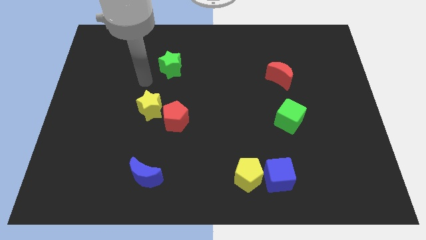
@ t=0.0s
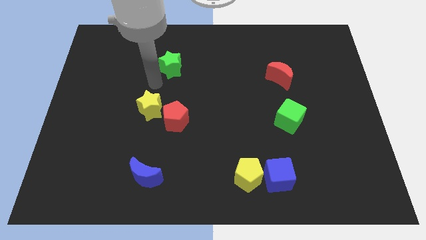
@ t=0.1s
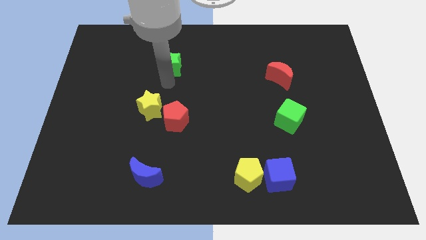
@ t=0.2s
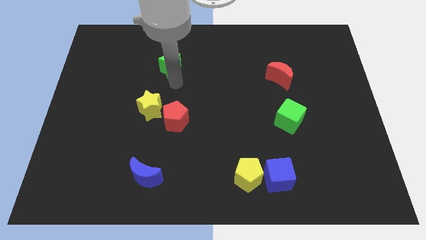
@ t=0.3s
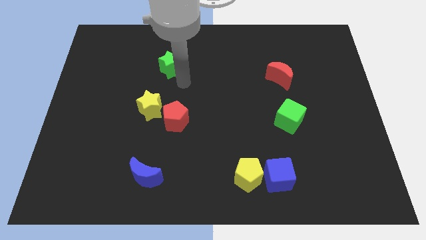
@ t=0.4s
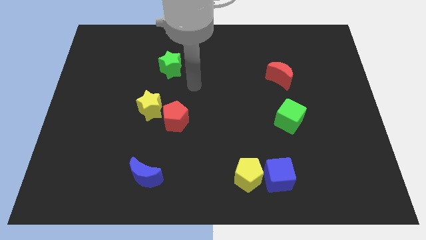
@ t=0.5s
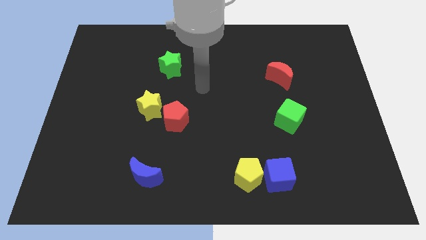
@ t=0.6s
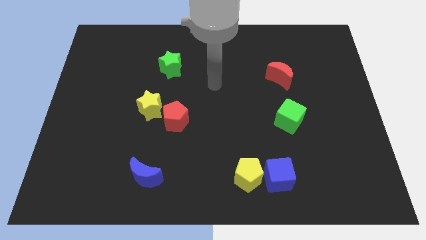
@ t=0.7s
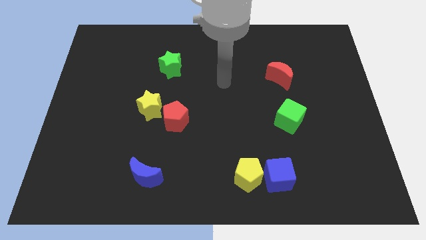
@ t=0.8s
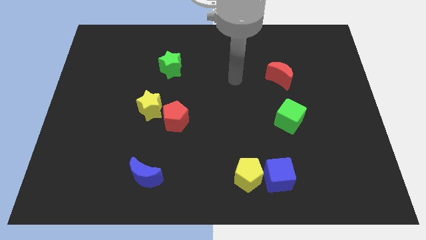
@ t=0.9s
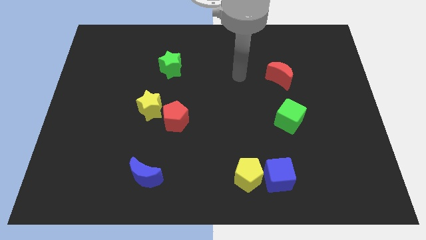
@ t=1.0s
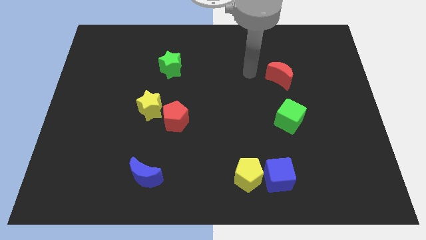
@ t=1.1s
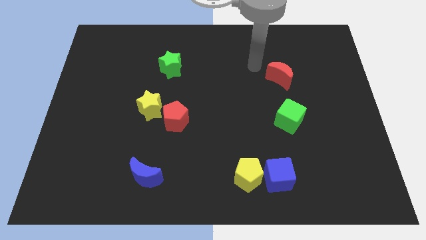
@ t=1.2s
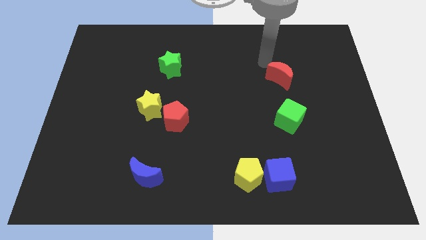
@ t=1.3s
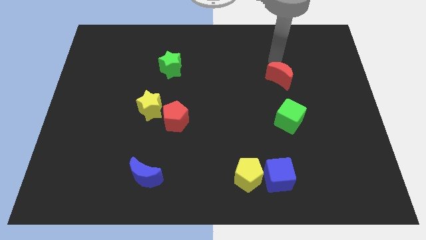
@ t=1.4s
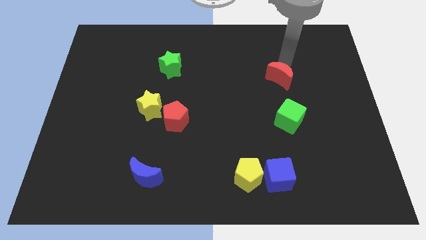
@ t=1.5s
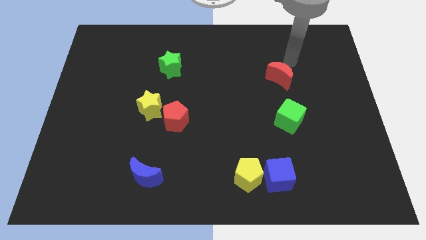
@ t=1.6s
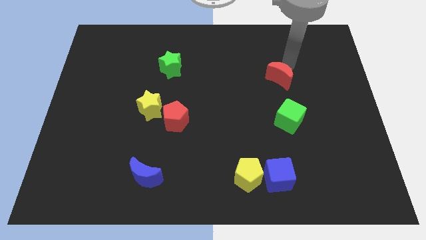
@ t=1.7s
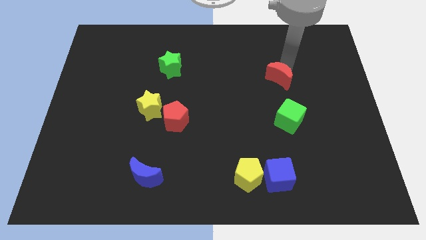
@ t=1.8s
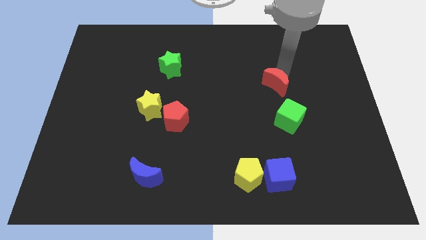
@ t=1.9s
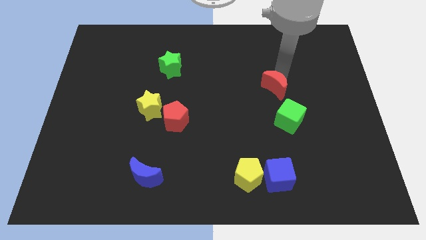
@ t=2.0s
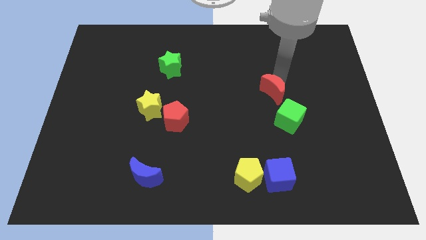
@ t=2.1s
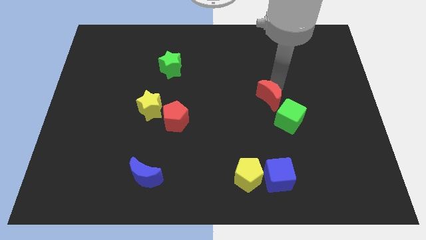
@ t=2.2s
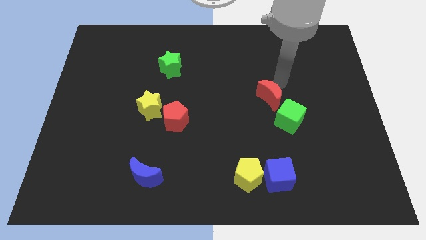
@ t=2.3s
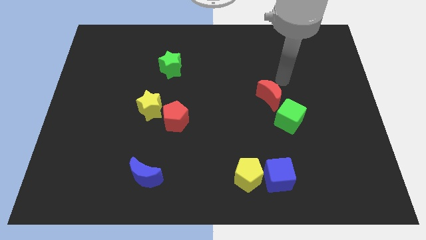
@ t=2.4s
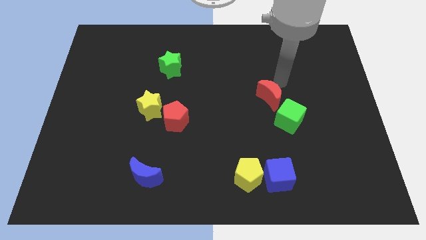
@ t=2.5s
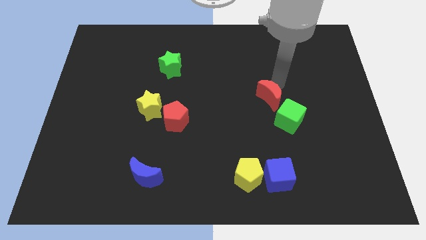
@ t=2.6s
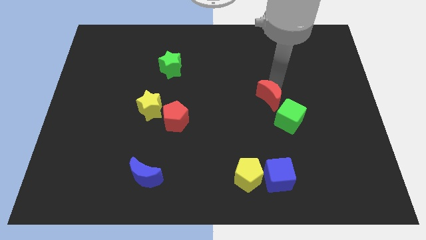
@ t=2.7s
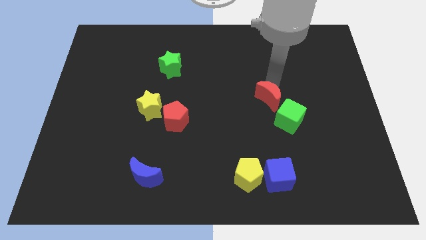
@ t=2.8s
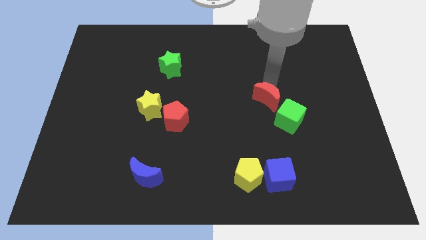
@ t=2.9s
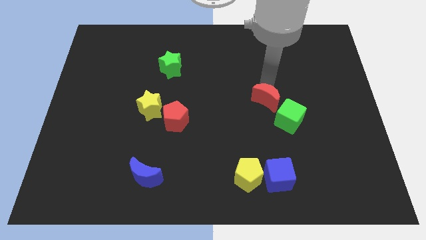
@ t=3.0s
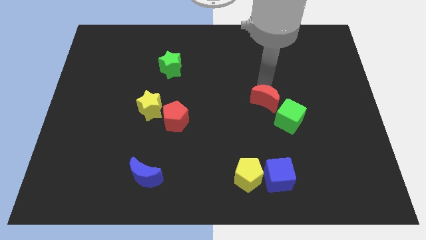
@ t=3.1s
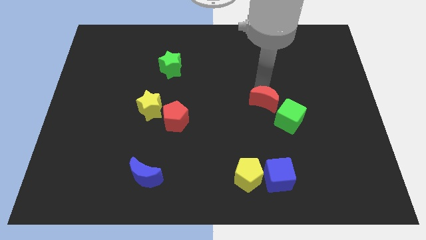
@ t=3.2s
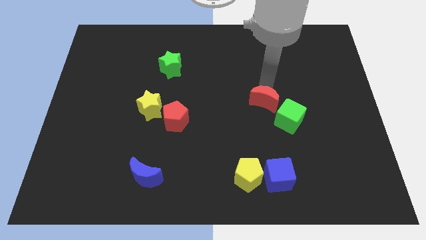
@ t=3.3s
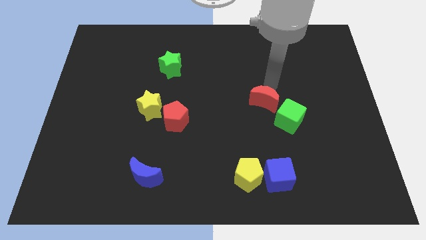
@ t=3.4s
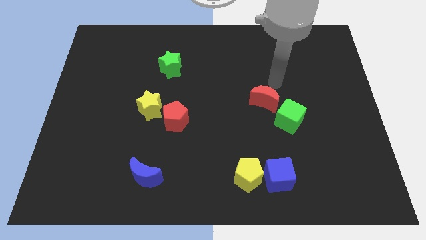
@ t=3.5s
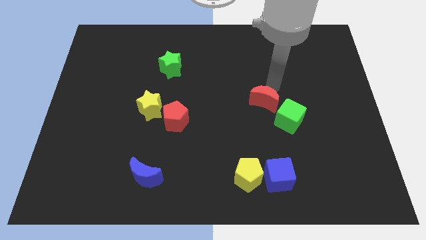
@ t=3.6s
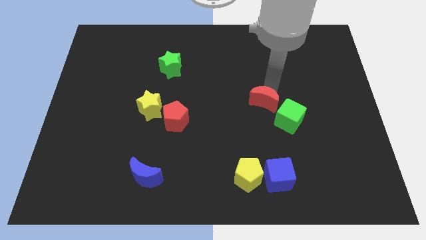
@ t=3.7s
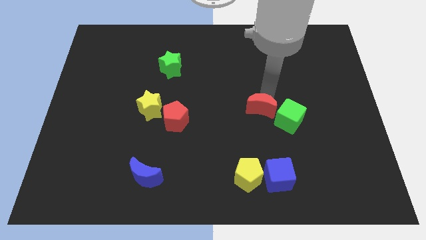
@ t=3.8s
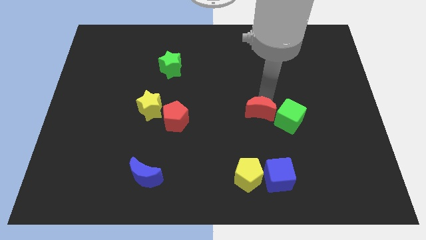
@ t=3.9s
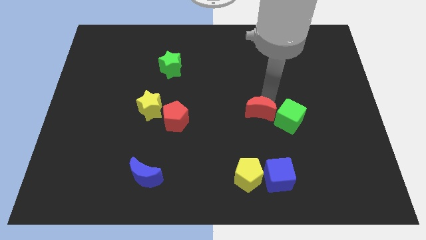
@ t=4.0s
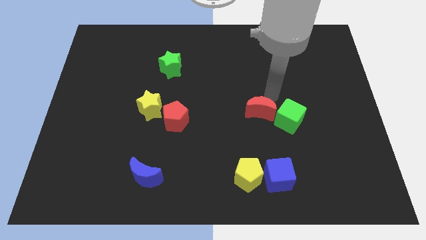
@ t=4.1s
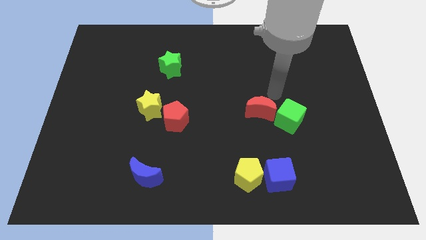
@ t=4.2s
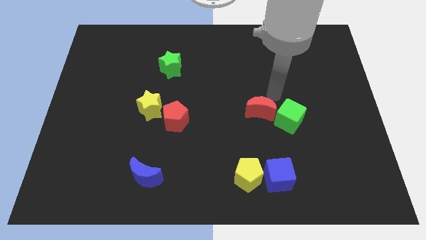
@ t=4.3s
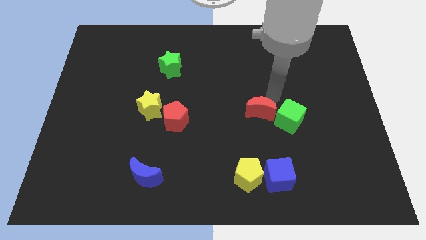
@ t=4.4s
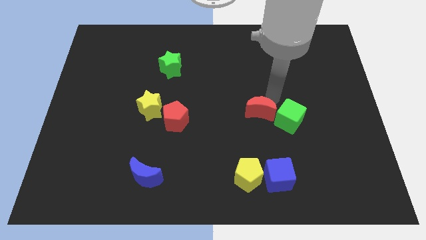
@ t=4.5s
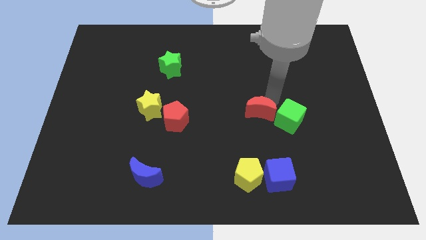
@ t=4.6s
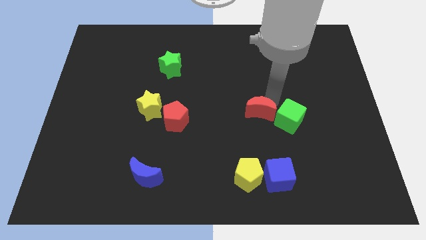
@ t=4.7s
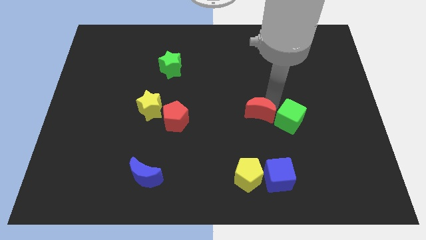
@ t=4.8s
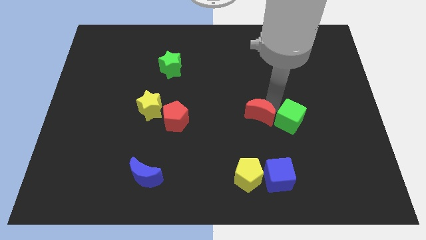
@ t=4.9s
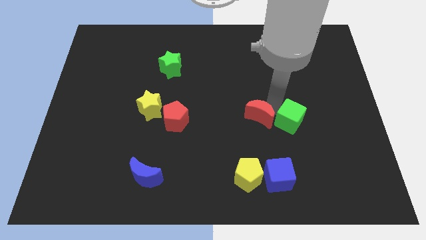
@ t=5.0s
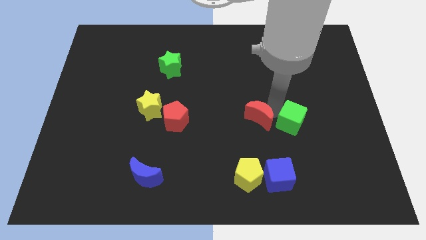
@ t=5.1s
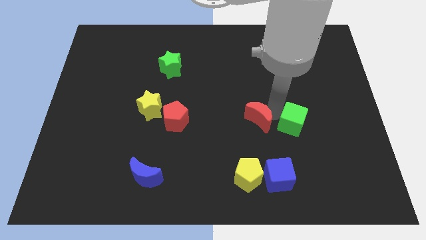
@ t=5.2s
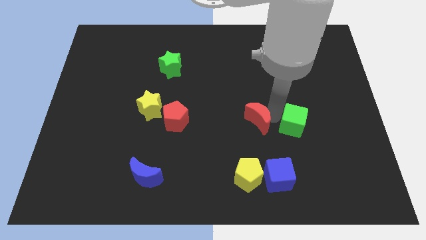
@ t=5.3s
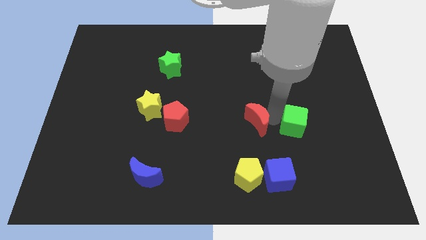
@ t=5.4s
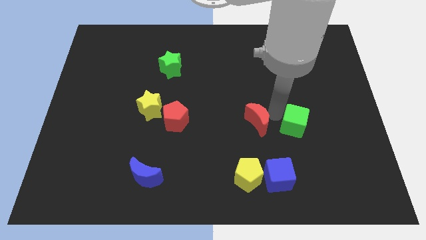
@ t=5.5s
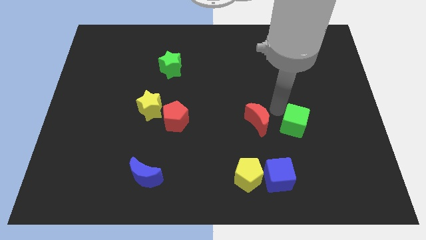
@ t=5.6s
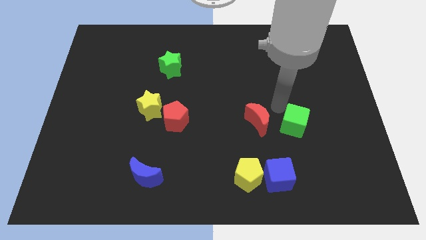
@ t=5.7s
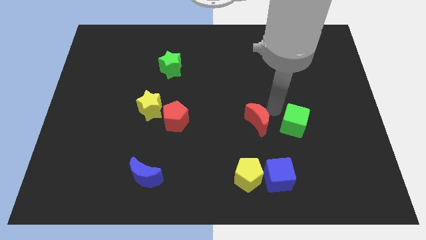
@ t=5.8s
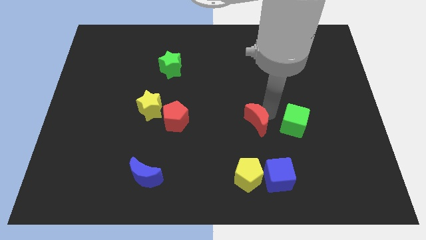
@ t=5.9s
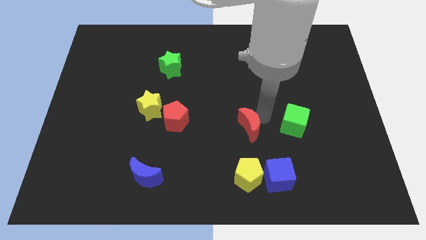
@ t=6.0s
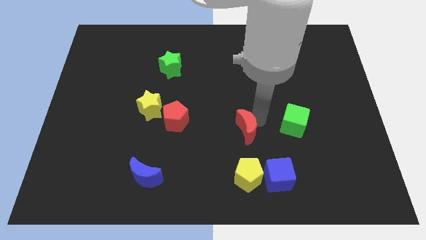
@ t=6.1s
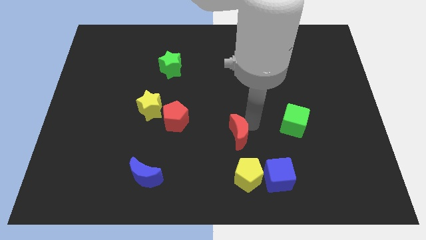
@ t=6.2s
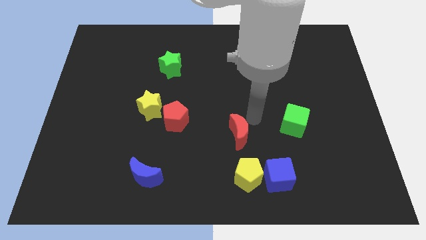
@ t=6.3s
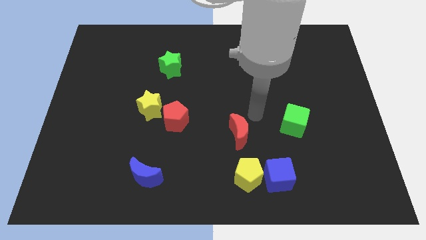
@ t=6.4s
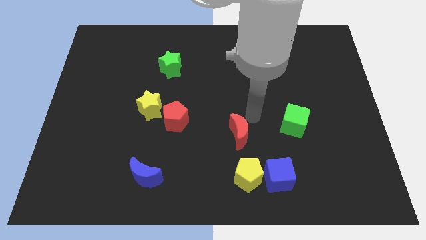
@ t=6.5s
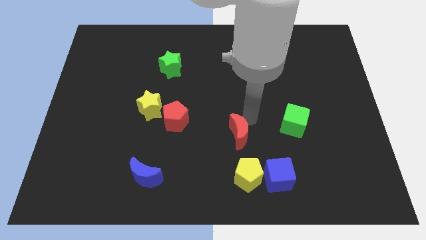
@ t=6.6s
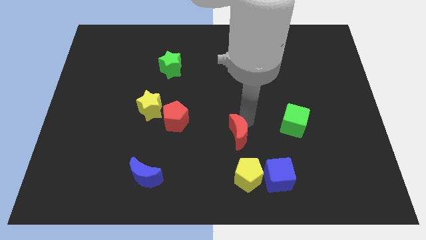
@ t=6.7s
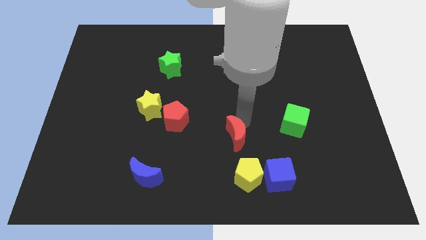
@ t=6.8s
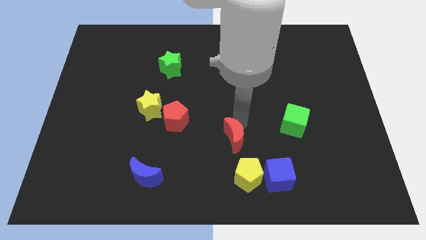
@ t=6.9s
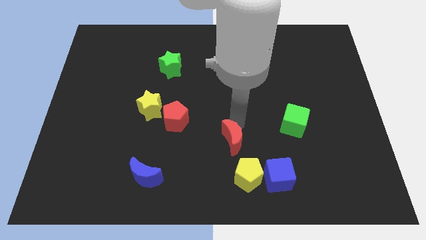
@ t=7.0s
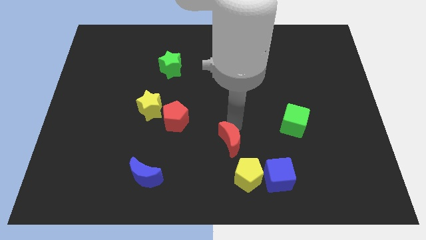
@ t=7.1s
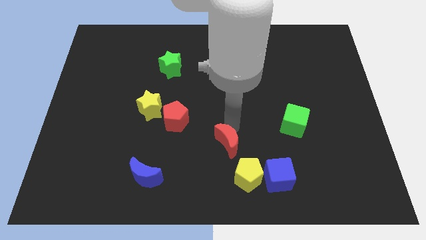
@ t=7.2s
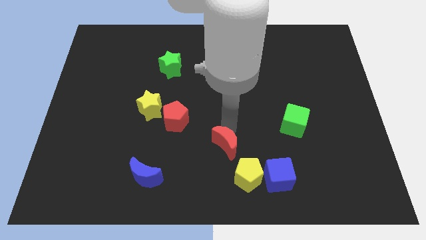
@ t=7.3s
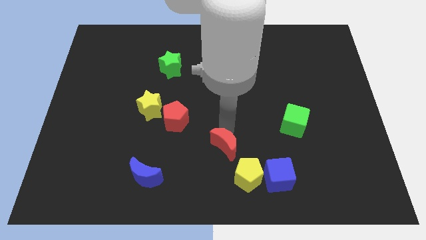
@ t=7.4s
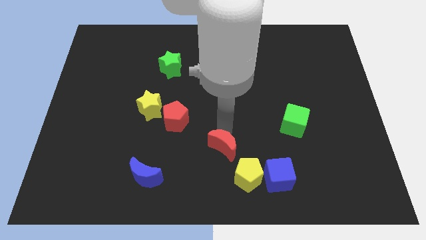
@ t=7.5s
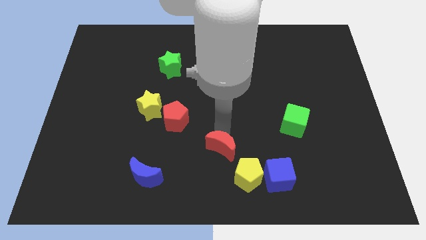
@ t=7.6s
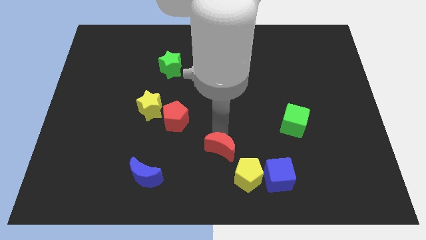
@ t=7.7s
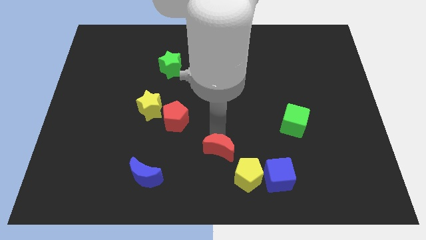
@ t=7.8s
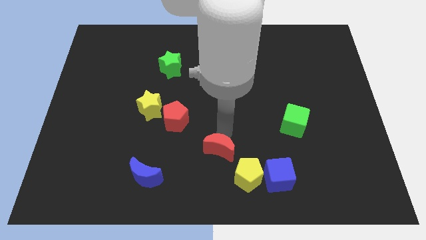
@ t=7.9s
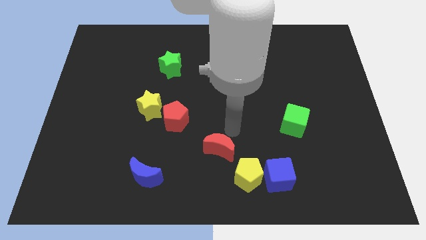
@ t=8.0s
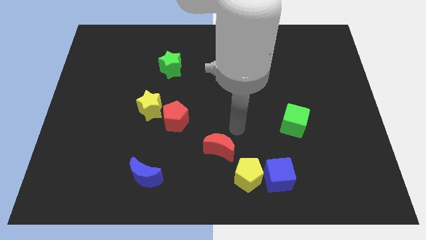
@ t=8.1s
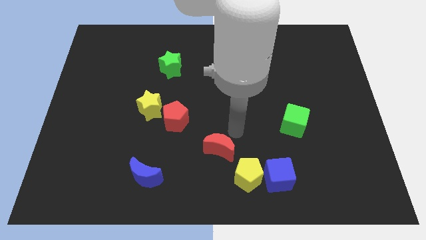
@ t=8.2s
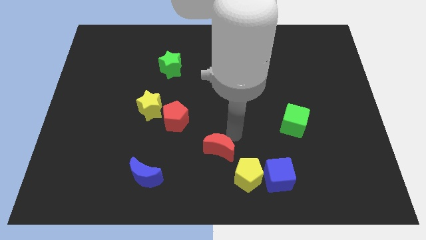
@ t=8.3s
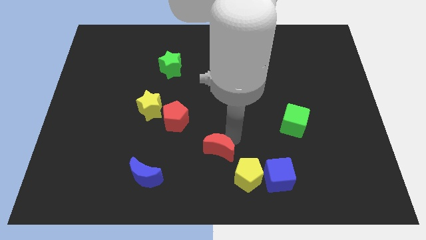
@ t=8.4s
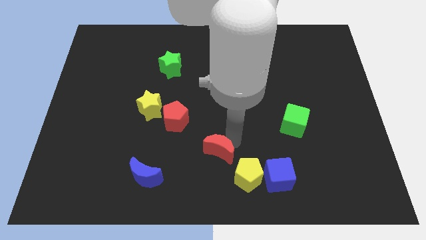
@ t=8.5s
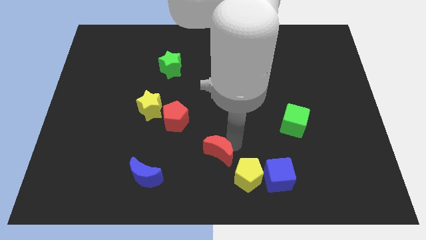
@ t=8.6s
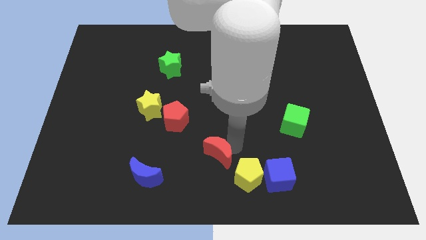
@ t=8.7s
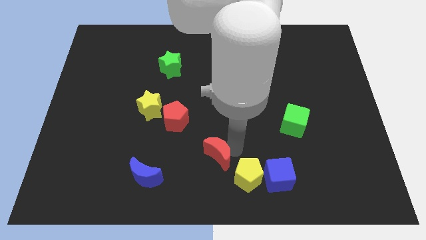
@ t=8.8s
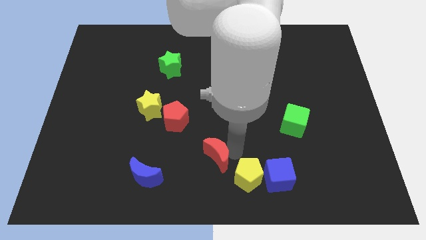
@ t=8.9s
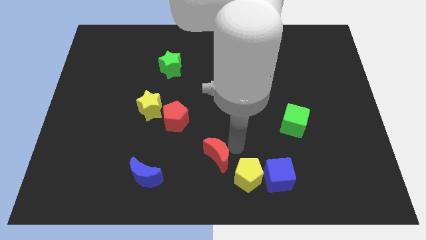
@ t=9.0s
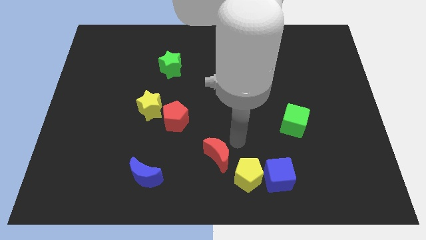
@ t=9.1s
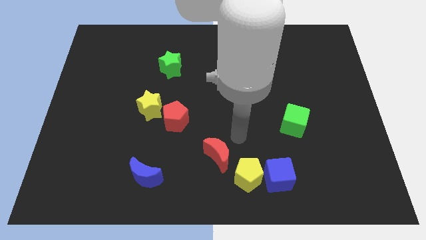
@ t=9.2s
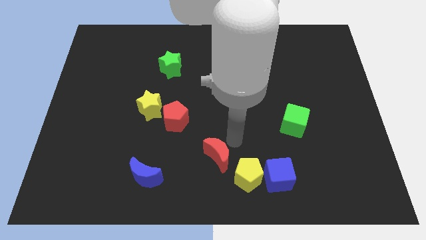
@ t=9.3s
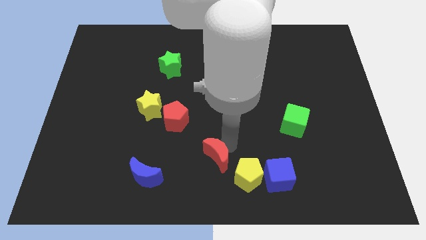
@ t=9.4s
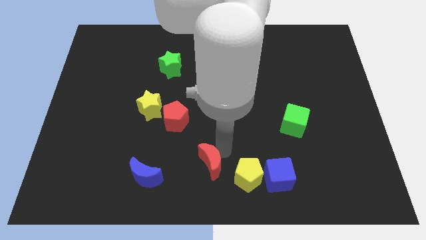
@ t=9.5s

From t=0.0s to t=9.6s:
push the red moon right of the blue moon
